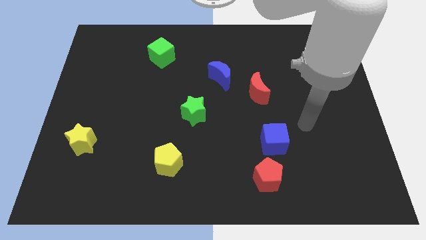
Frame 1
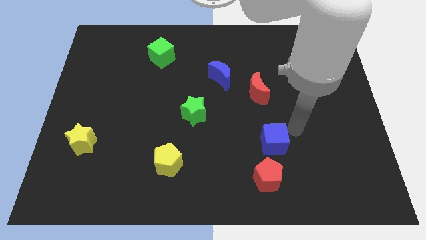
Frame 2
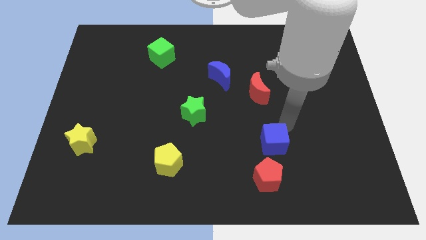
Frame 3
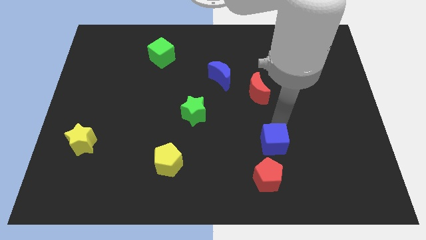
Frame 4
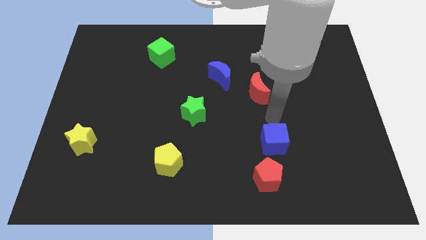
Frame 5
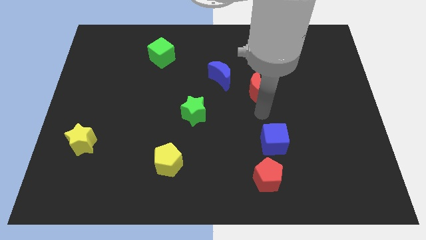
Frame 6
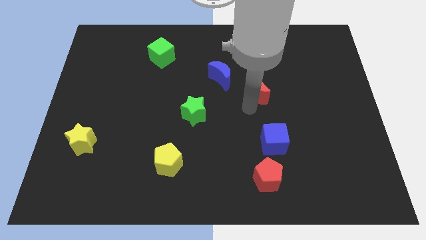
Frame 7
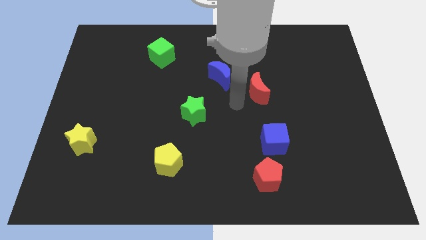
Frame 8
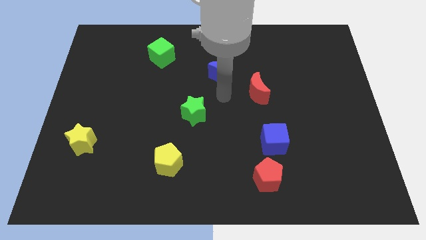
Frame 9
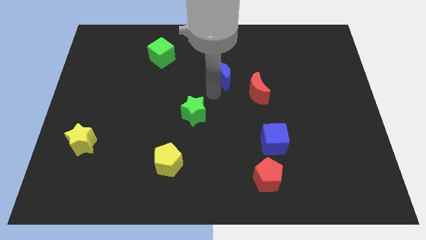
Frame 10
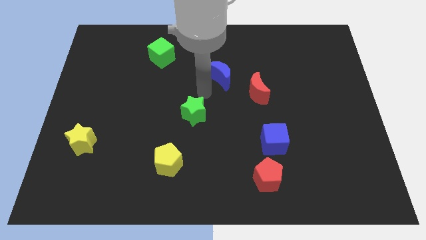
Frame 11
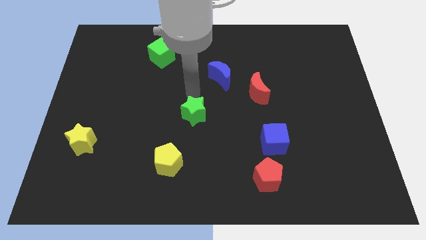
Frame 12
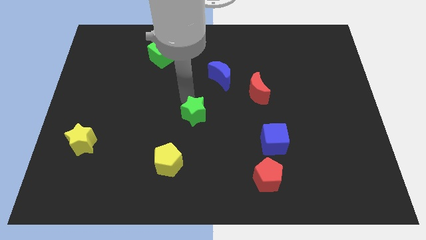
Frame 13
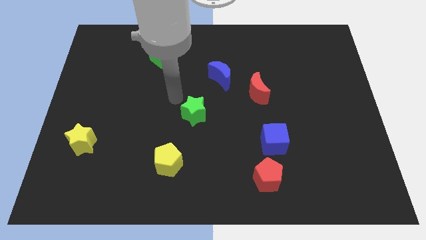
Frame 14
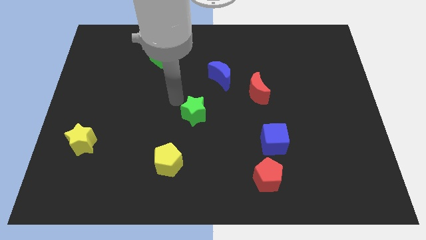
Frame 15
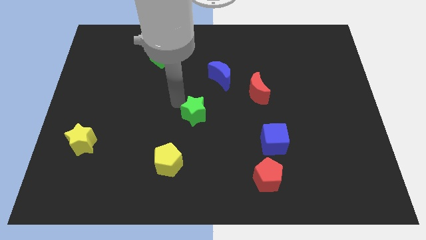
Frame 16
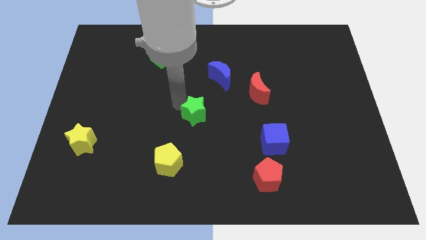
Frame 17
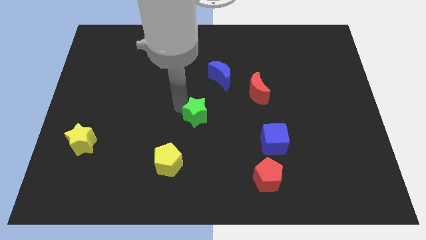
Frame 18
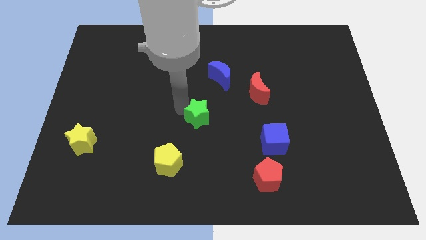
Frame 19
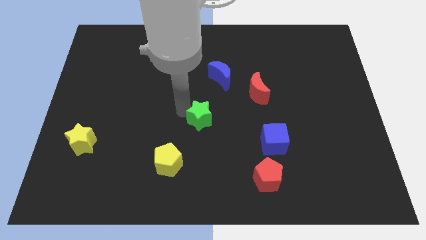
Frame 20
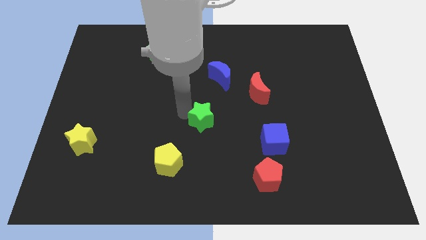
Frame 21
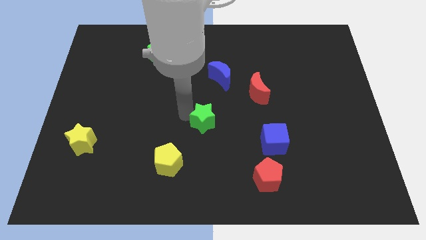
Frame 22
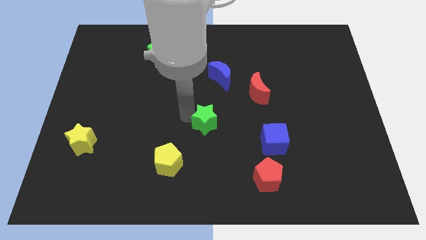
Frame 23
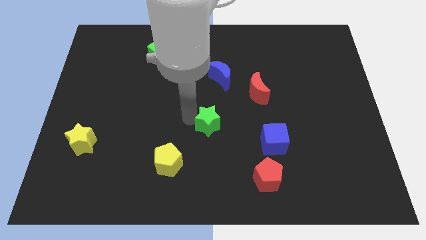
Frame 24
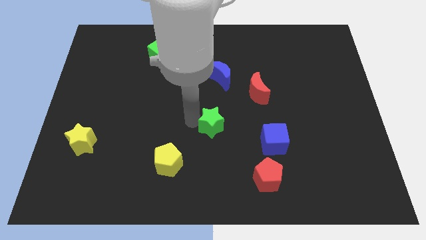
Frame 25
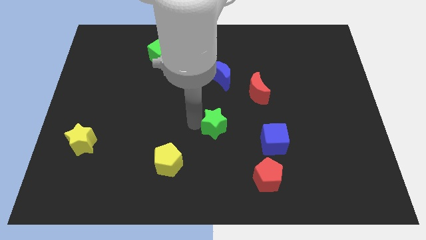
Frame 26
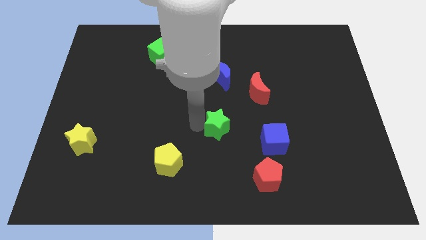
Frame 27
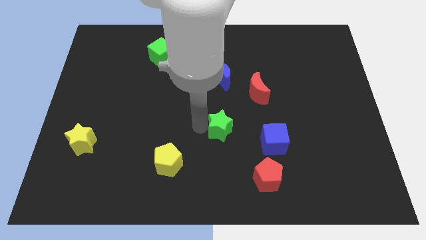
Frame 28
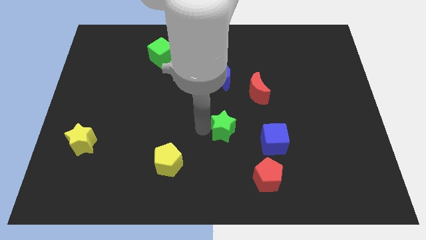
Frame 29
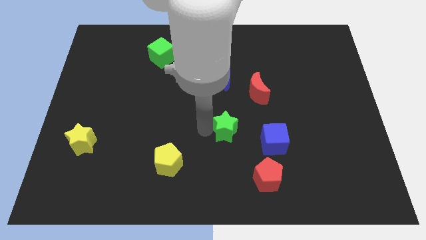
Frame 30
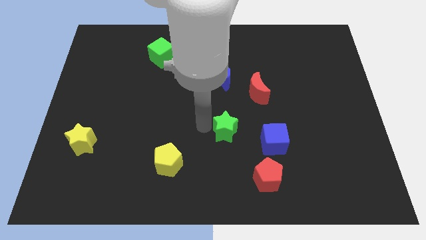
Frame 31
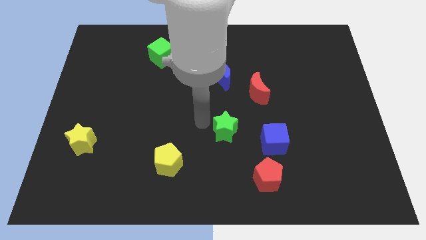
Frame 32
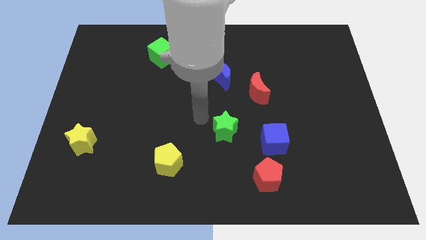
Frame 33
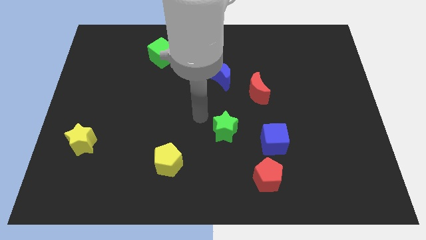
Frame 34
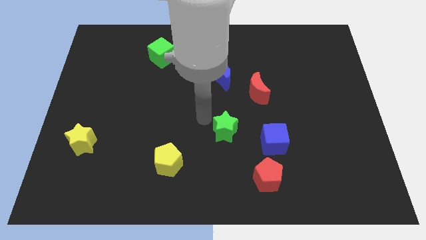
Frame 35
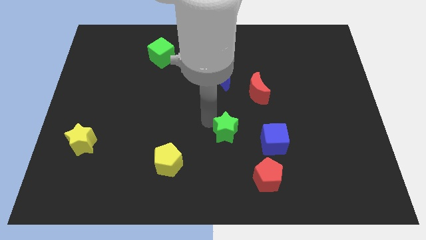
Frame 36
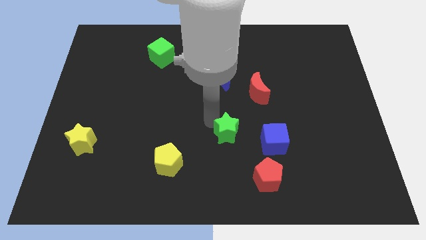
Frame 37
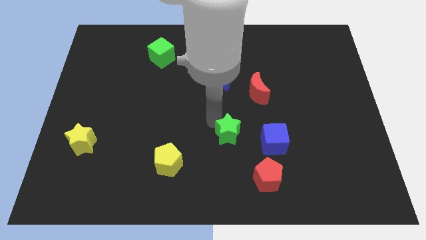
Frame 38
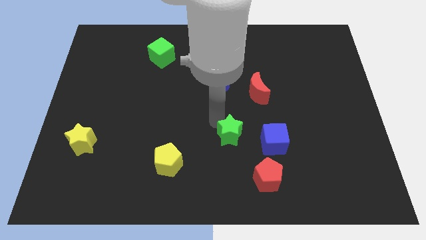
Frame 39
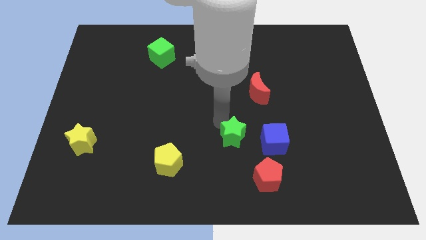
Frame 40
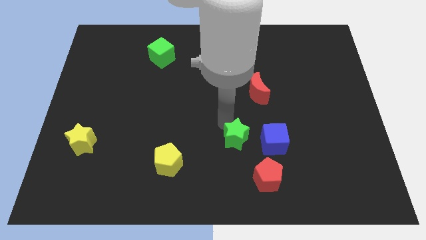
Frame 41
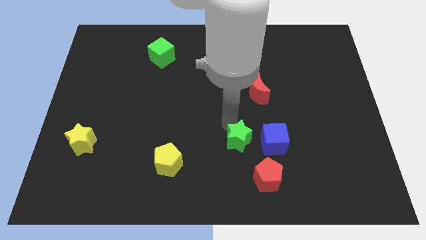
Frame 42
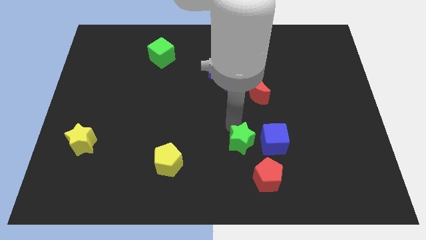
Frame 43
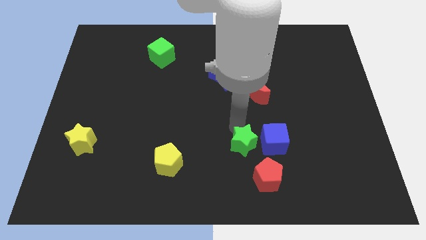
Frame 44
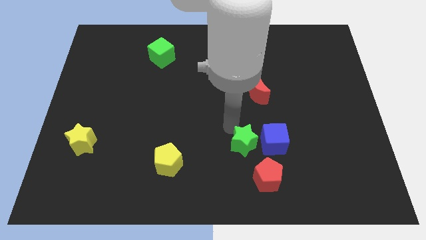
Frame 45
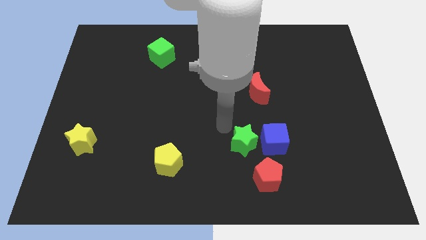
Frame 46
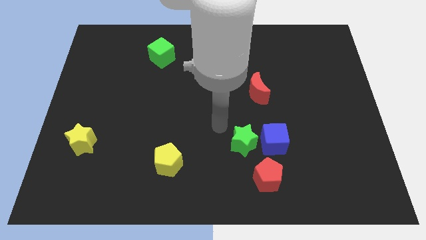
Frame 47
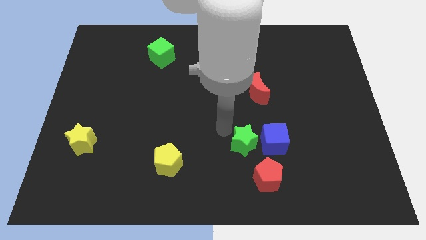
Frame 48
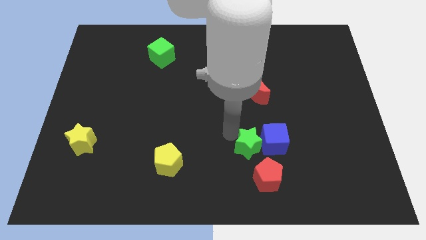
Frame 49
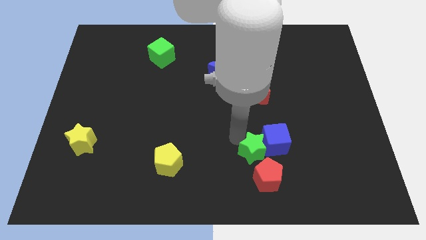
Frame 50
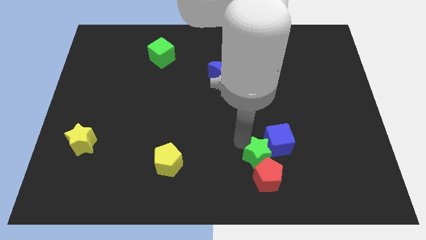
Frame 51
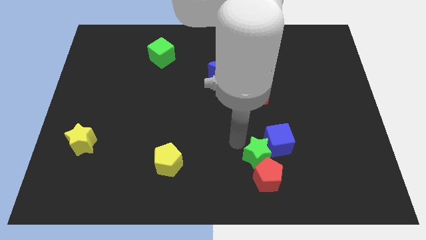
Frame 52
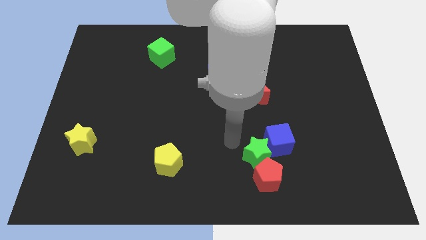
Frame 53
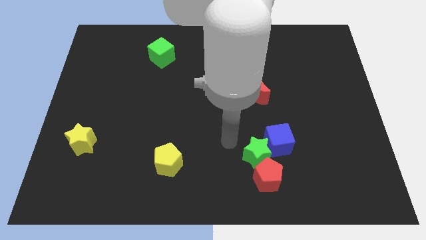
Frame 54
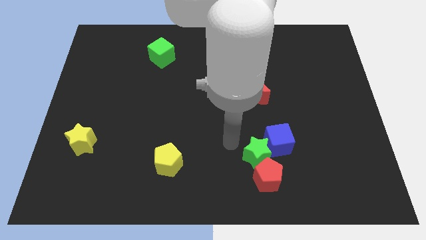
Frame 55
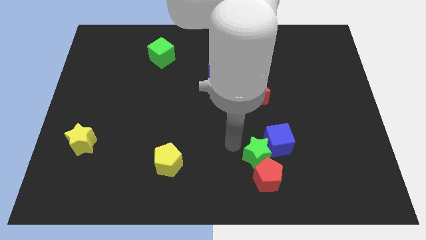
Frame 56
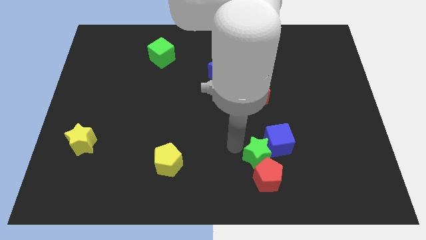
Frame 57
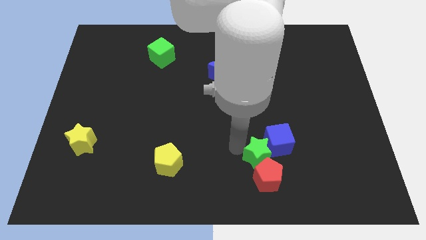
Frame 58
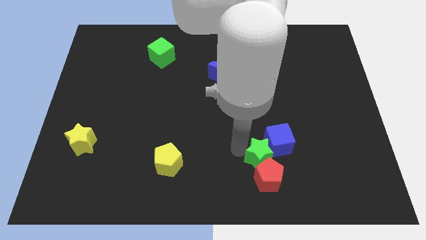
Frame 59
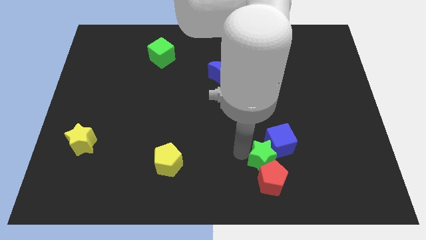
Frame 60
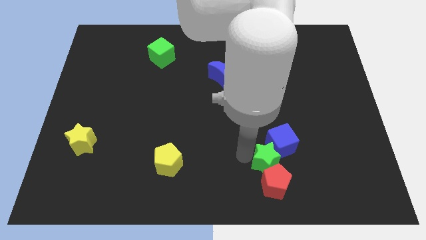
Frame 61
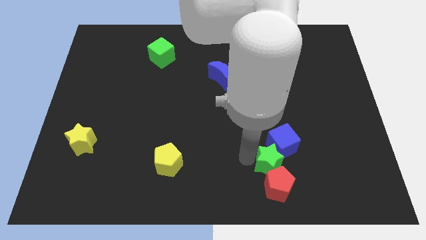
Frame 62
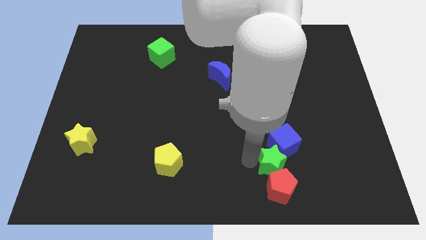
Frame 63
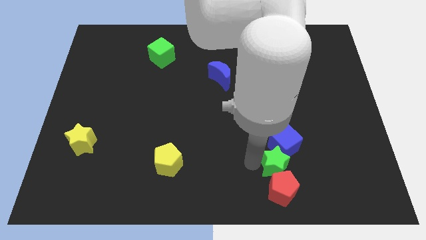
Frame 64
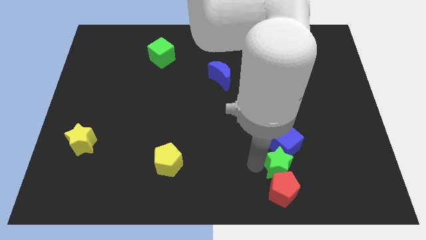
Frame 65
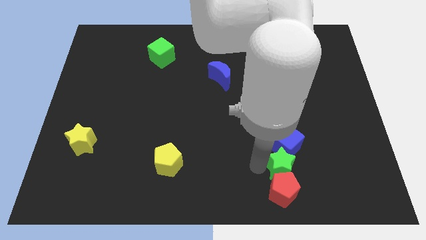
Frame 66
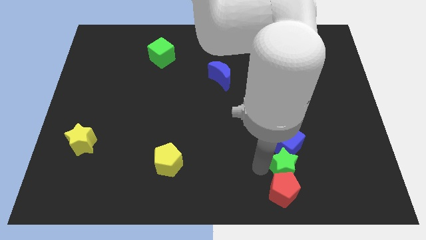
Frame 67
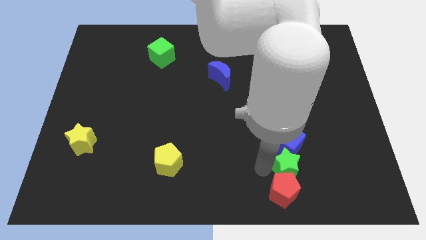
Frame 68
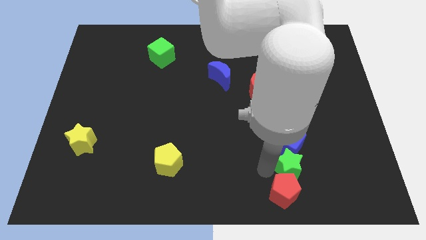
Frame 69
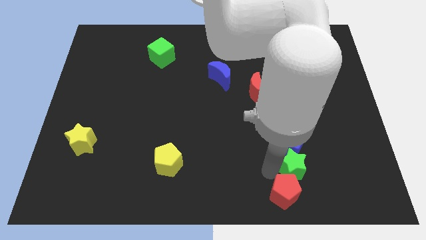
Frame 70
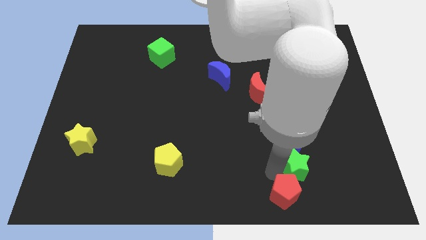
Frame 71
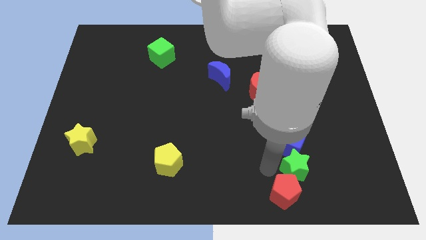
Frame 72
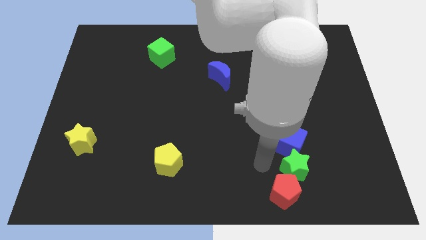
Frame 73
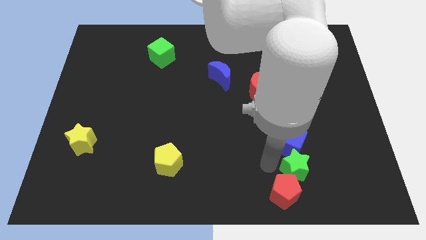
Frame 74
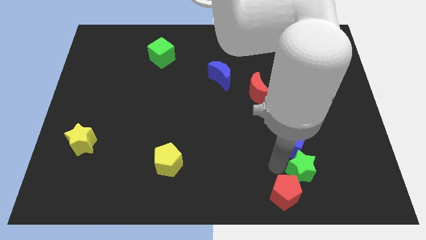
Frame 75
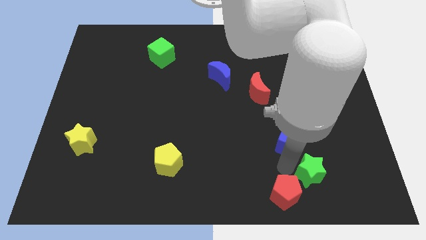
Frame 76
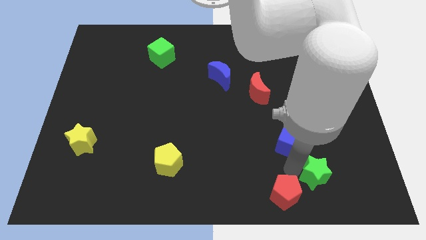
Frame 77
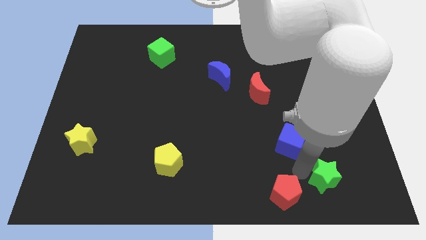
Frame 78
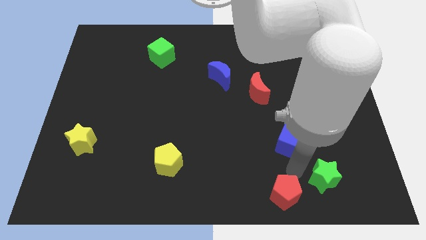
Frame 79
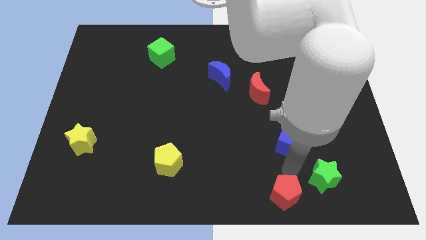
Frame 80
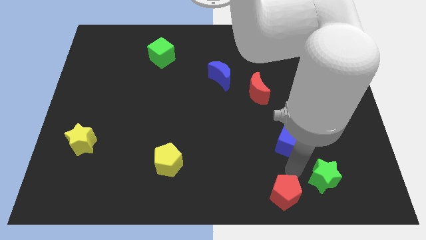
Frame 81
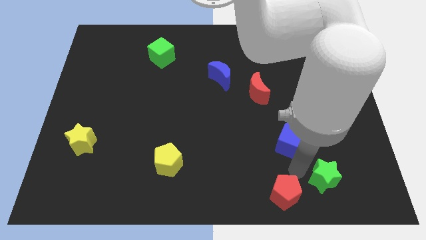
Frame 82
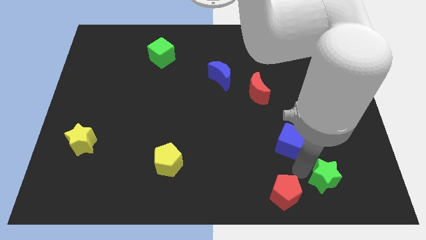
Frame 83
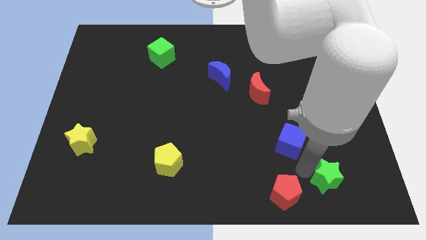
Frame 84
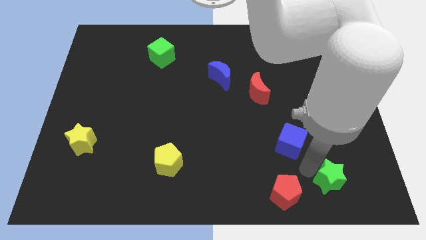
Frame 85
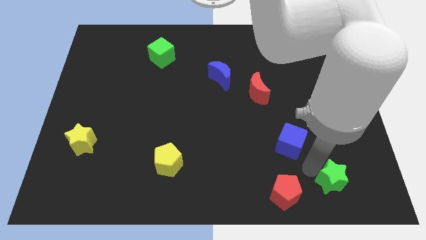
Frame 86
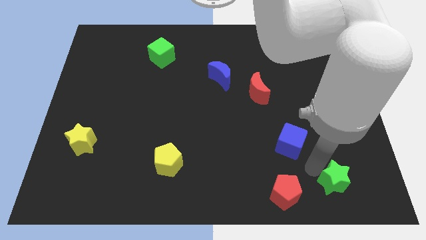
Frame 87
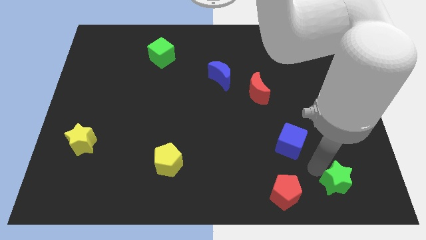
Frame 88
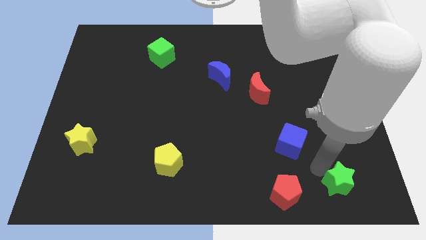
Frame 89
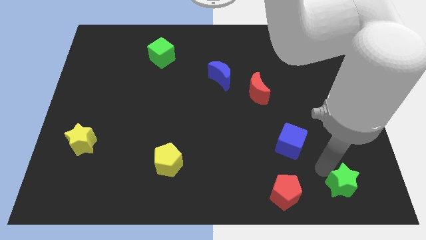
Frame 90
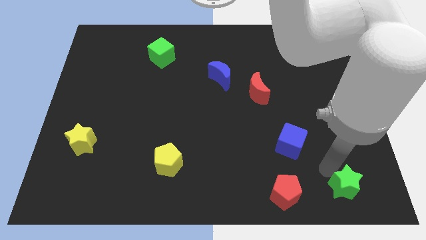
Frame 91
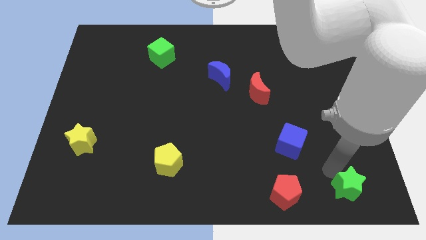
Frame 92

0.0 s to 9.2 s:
slide the green star to the bottom right corner
